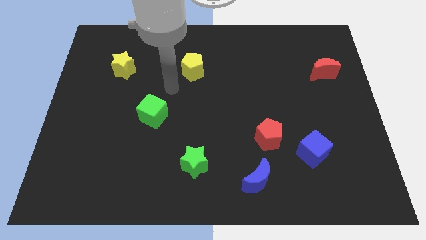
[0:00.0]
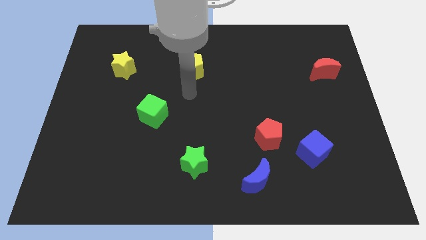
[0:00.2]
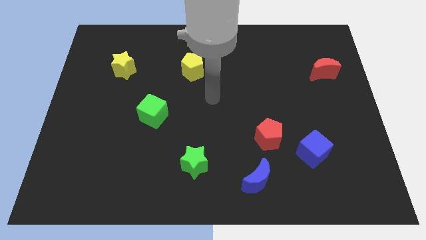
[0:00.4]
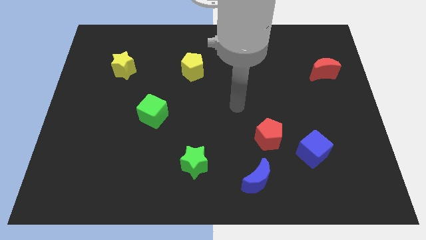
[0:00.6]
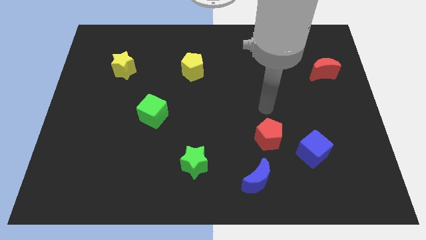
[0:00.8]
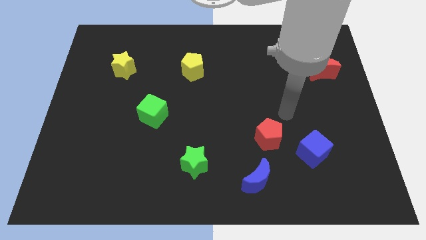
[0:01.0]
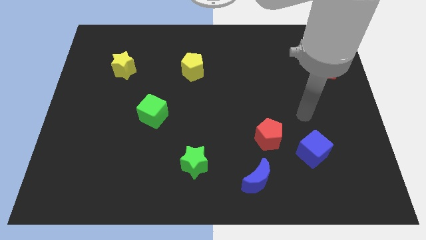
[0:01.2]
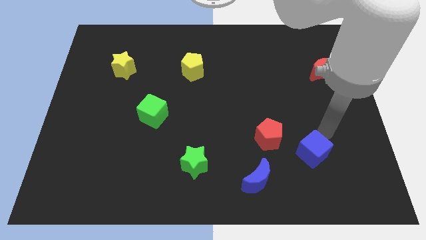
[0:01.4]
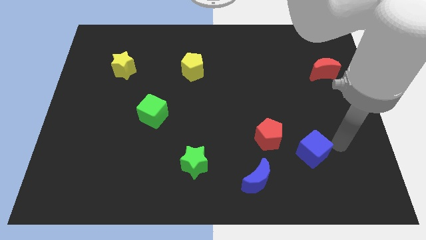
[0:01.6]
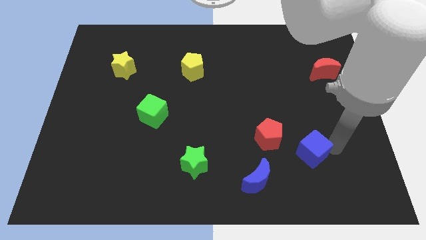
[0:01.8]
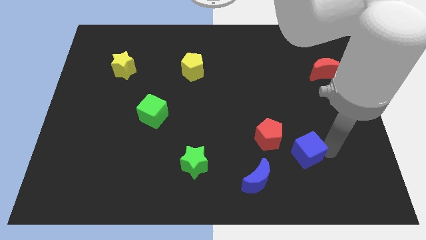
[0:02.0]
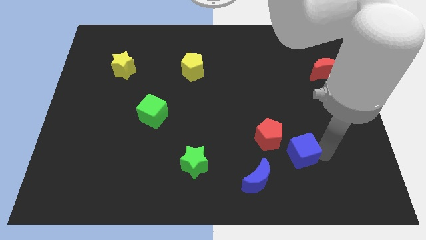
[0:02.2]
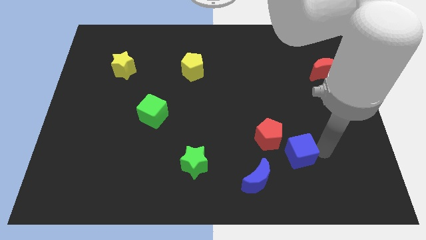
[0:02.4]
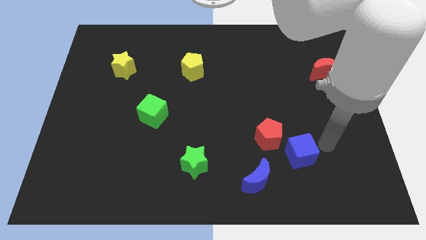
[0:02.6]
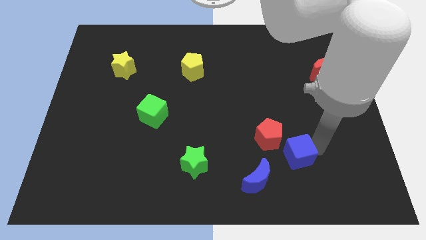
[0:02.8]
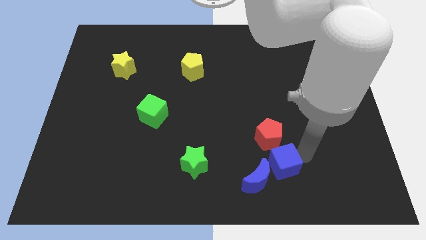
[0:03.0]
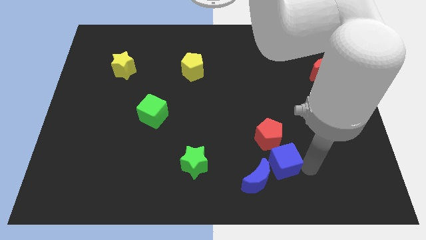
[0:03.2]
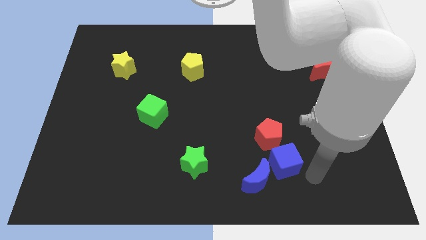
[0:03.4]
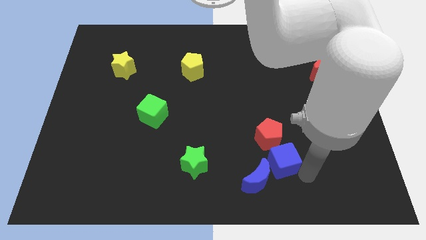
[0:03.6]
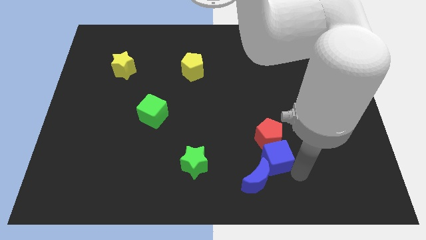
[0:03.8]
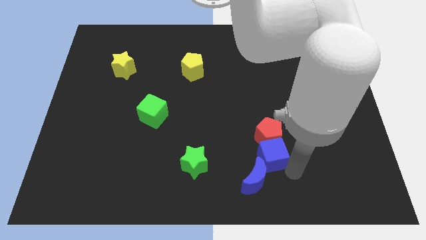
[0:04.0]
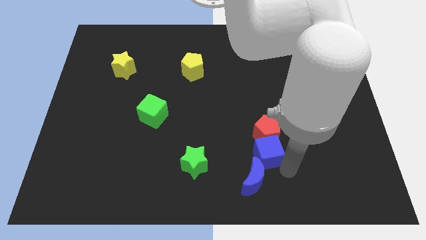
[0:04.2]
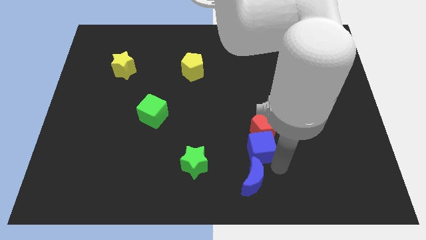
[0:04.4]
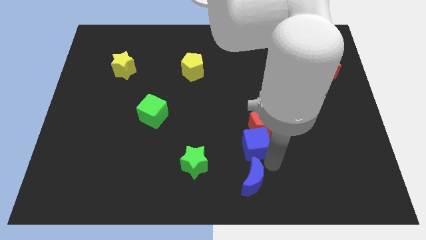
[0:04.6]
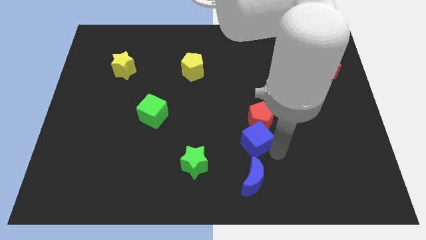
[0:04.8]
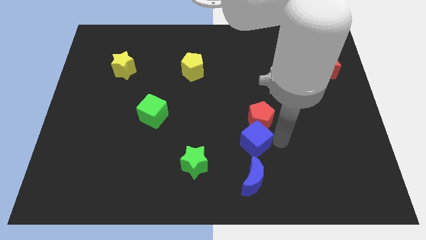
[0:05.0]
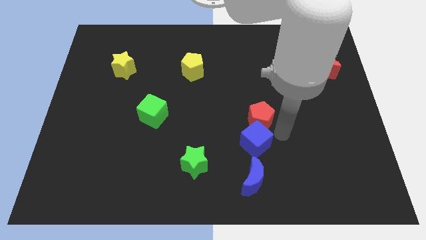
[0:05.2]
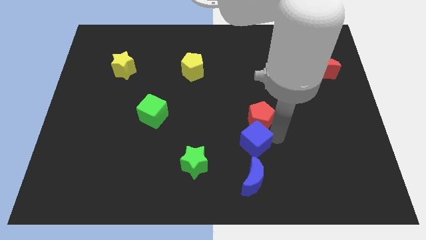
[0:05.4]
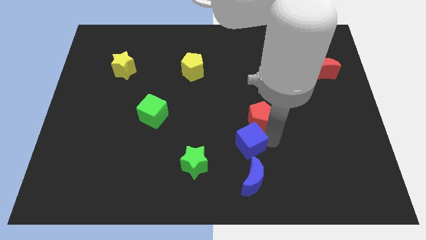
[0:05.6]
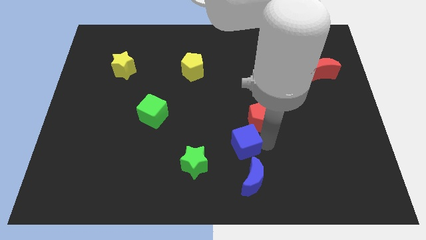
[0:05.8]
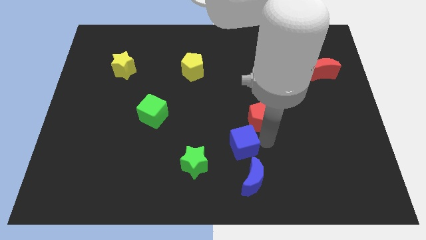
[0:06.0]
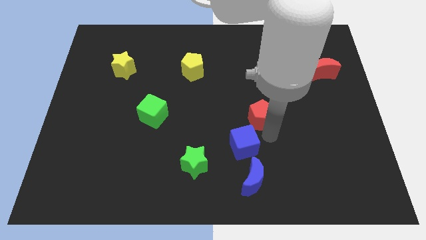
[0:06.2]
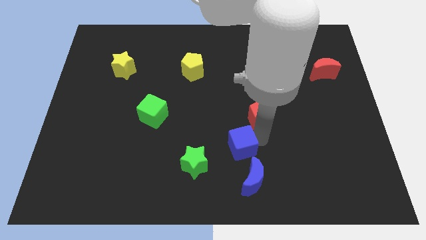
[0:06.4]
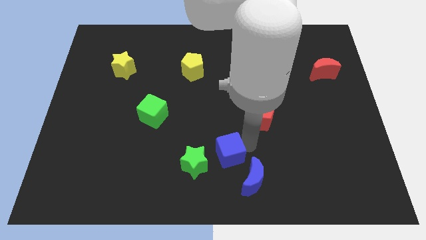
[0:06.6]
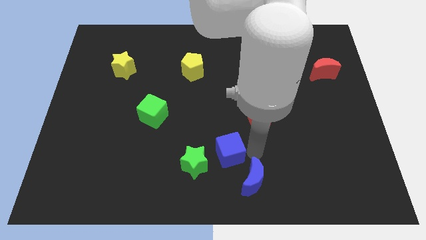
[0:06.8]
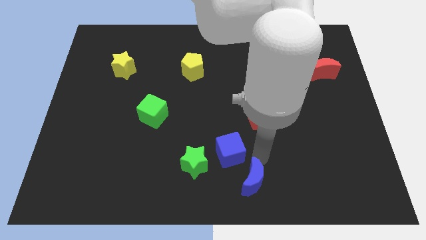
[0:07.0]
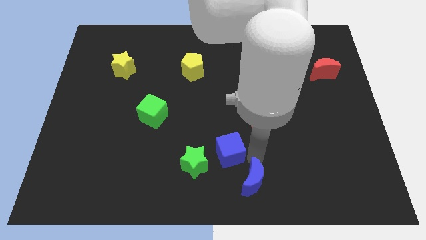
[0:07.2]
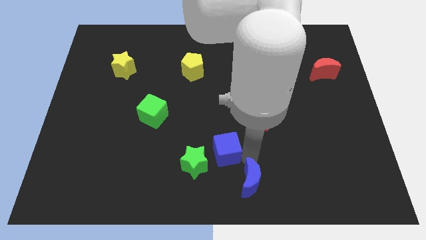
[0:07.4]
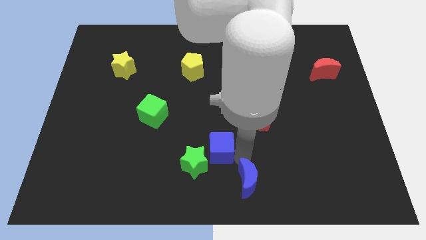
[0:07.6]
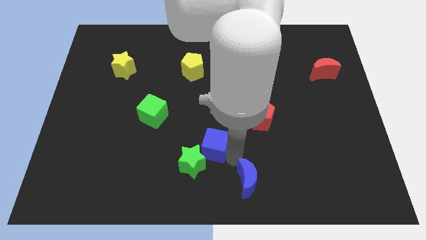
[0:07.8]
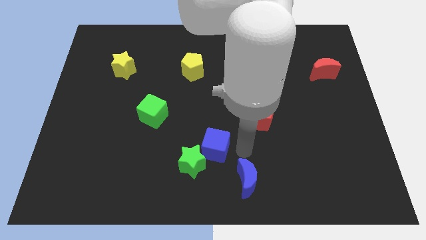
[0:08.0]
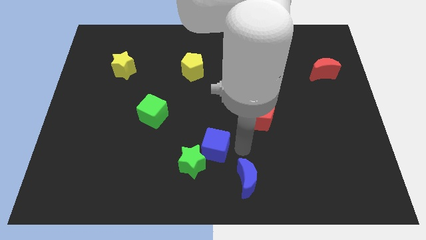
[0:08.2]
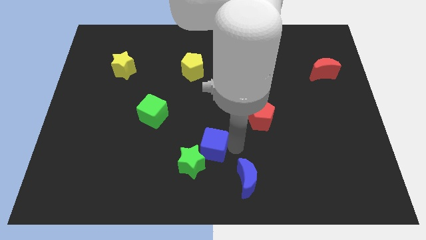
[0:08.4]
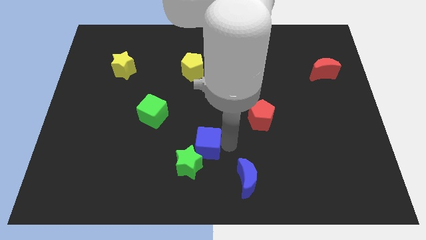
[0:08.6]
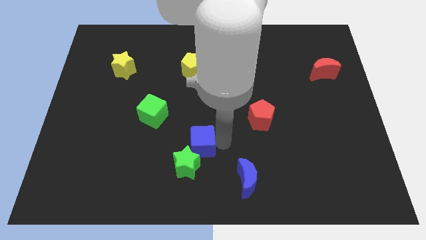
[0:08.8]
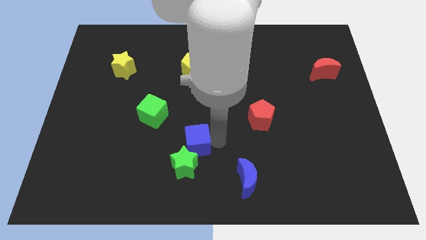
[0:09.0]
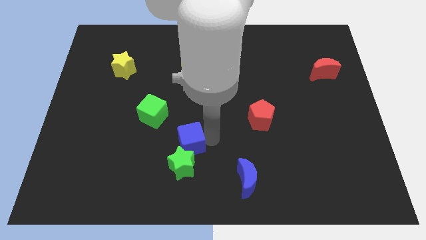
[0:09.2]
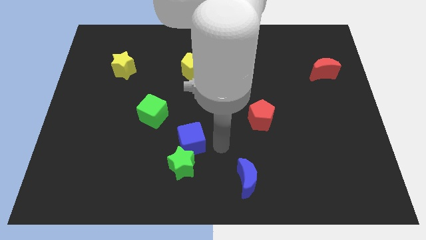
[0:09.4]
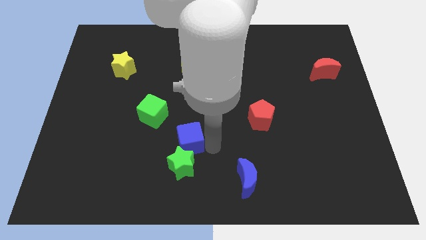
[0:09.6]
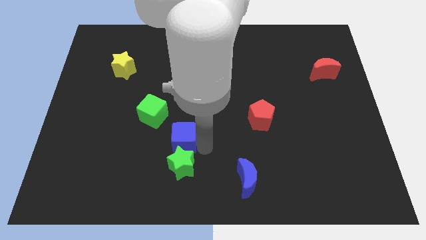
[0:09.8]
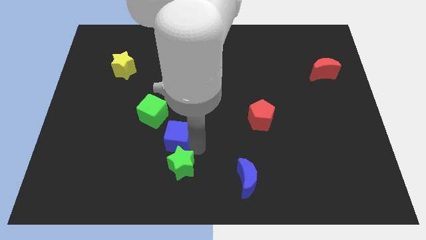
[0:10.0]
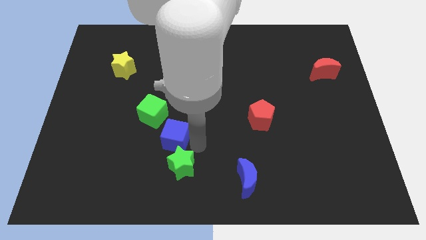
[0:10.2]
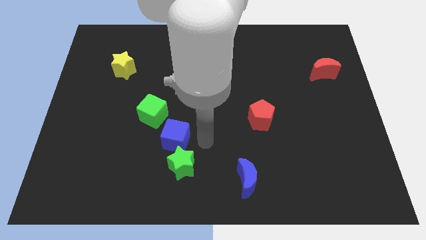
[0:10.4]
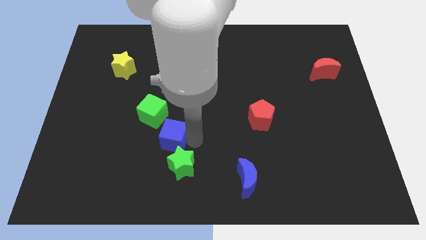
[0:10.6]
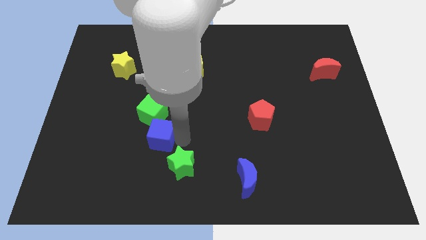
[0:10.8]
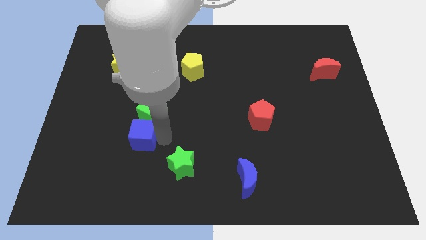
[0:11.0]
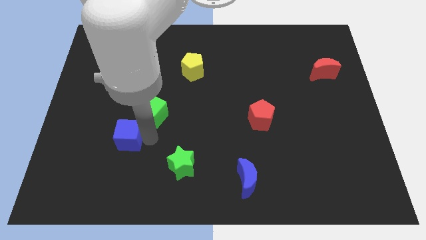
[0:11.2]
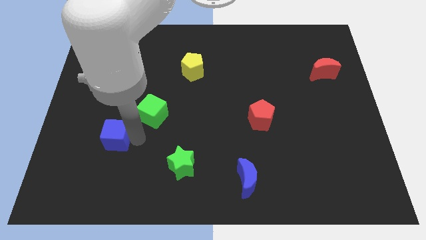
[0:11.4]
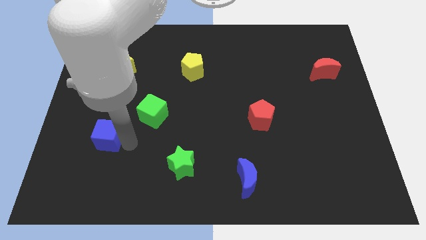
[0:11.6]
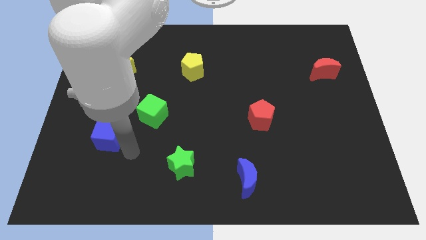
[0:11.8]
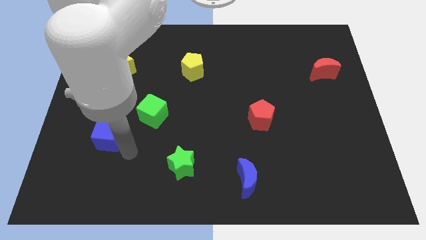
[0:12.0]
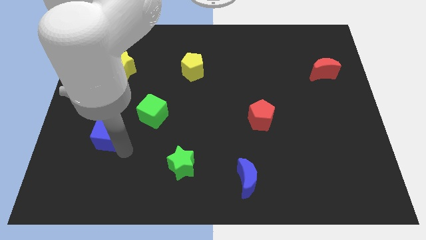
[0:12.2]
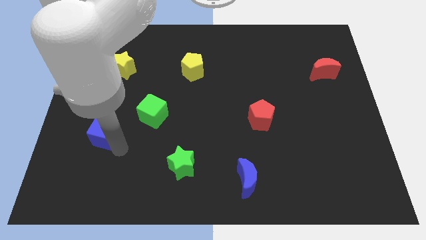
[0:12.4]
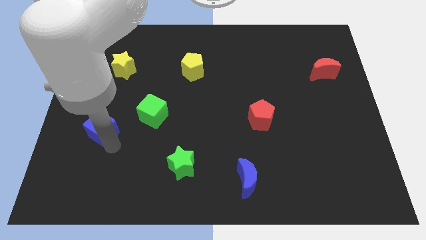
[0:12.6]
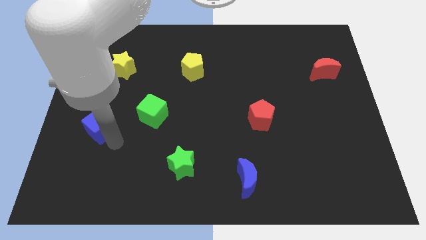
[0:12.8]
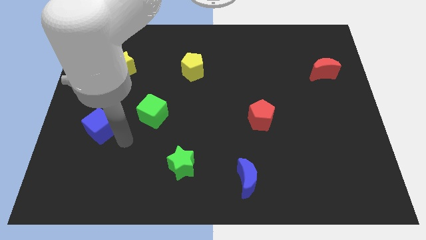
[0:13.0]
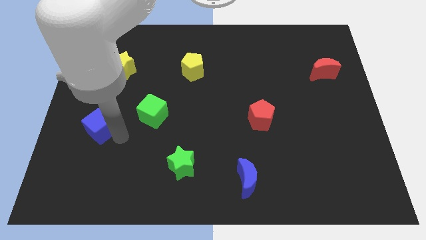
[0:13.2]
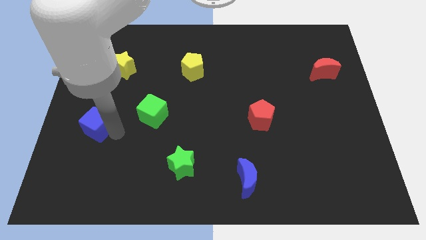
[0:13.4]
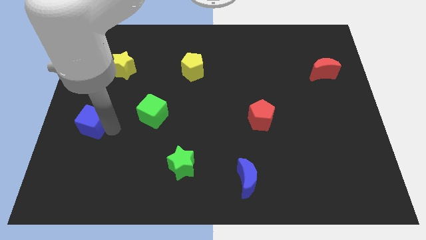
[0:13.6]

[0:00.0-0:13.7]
slide the blue cube to the left side of the board
